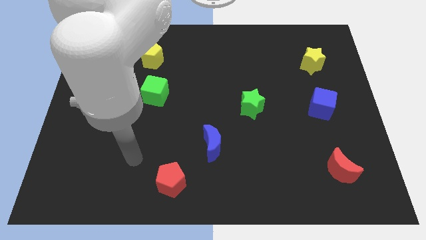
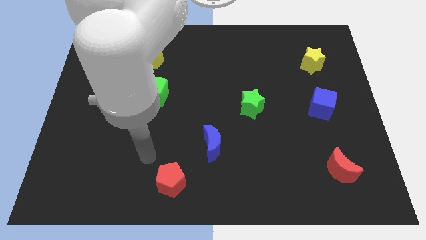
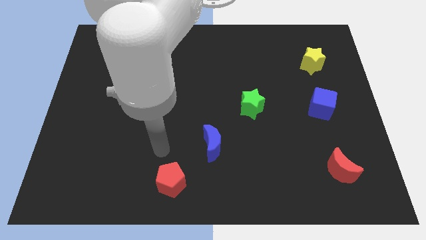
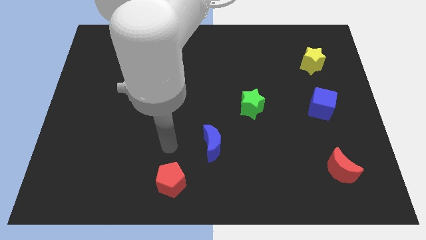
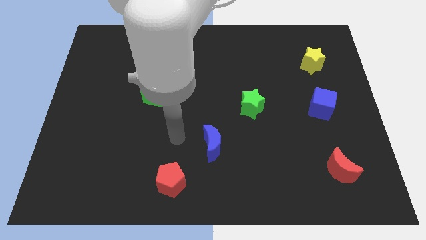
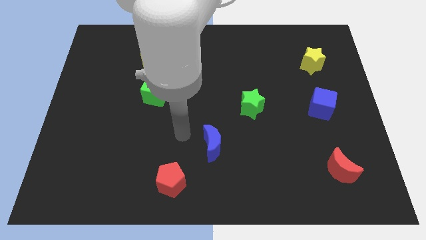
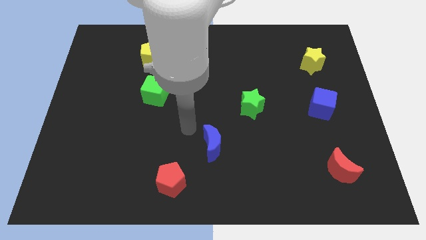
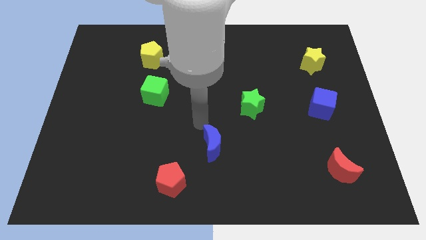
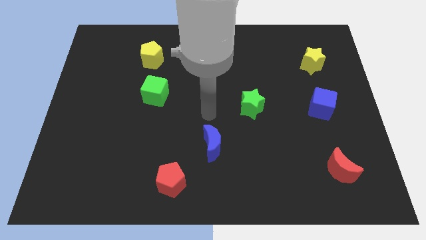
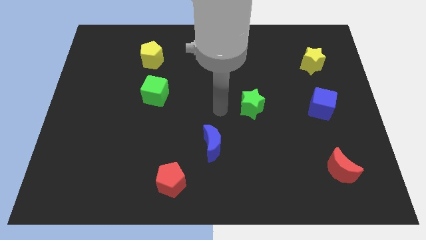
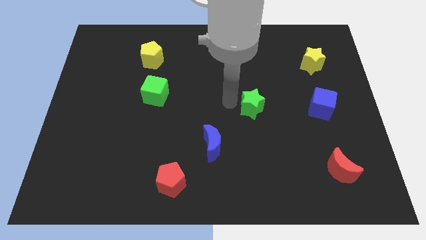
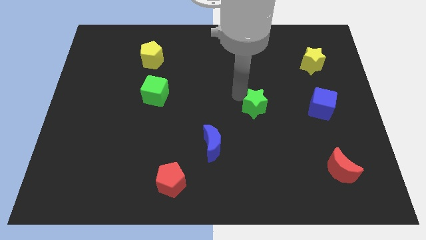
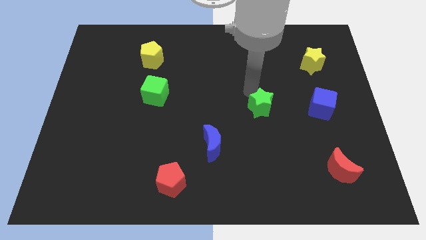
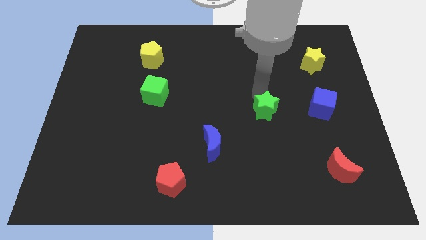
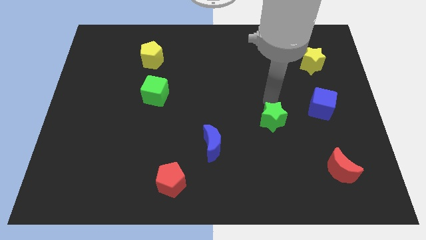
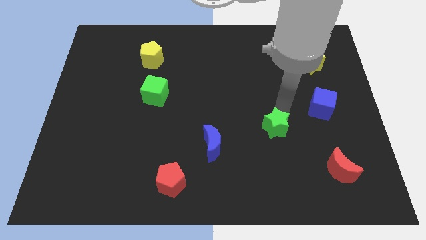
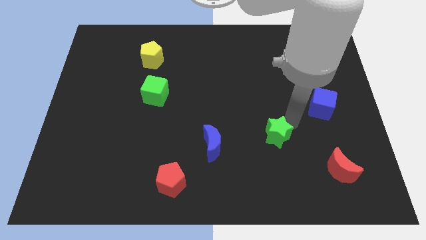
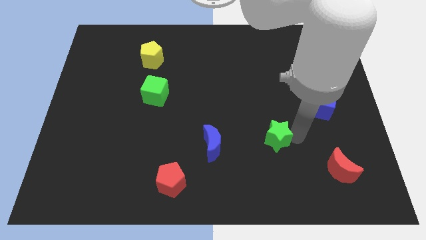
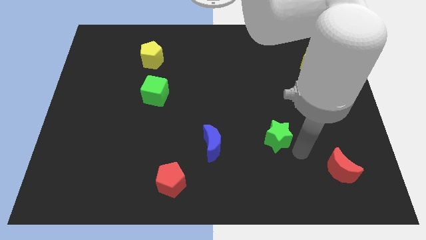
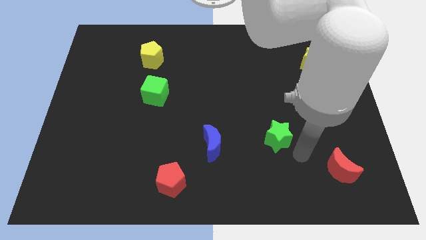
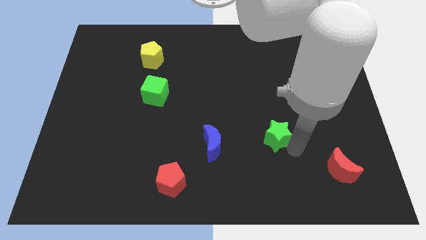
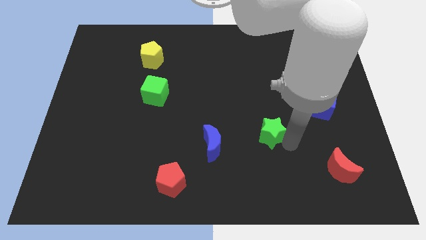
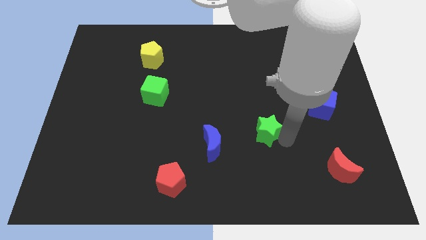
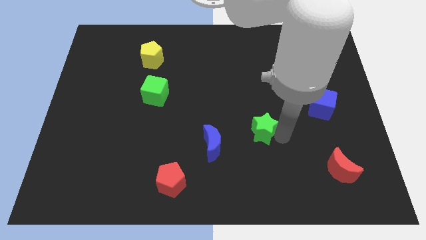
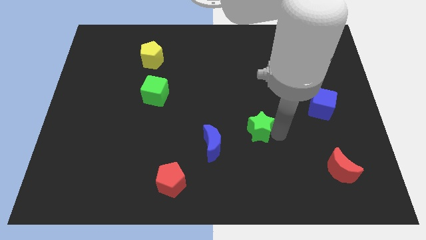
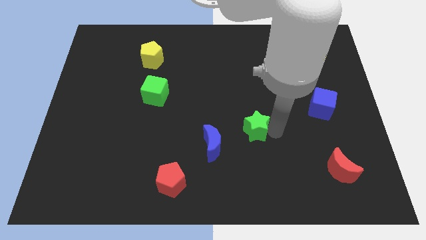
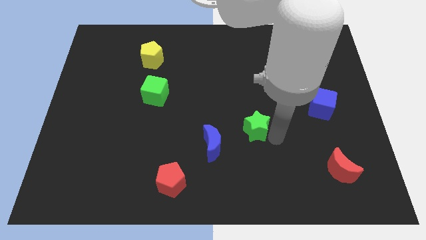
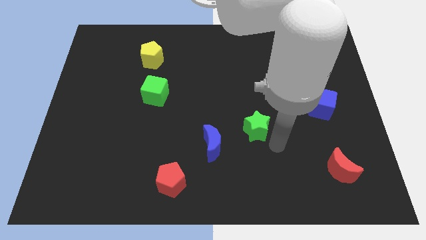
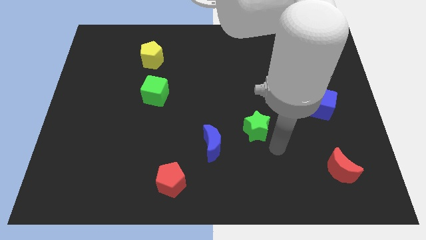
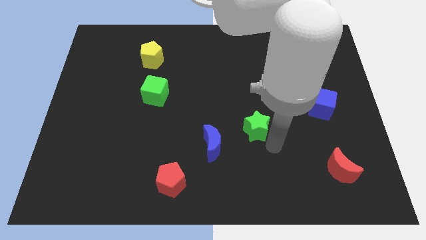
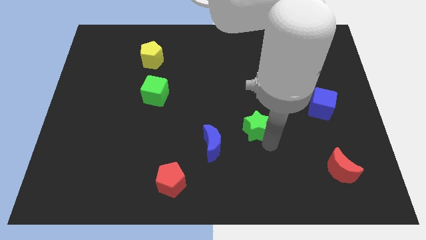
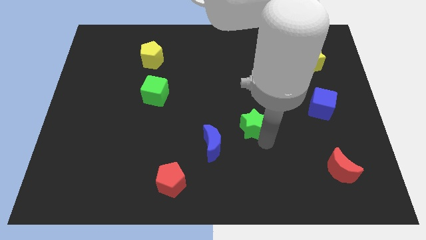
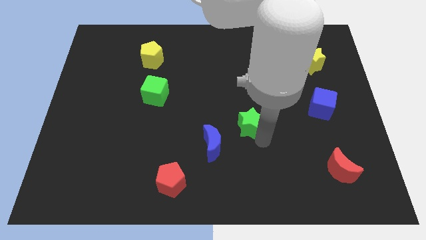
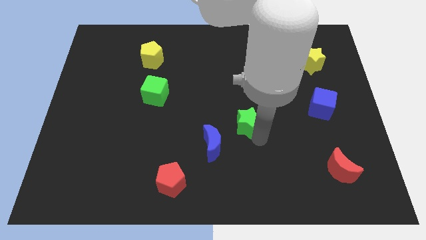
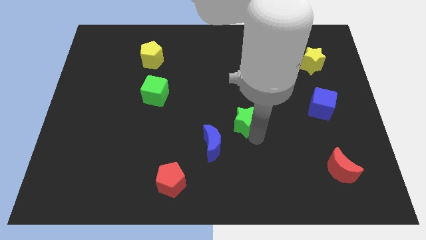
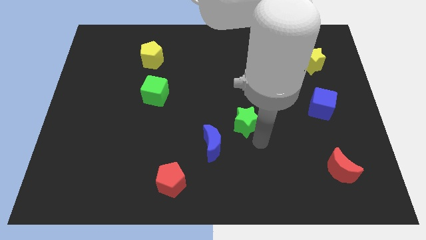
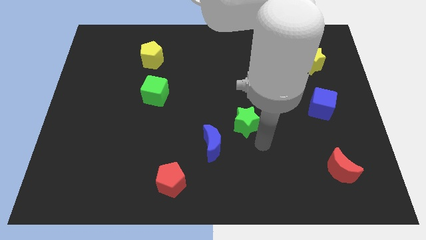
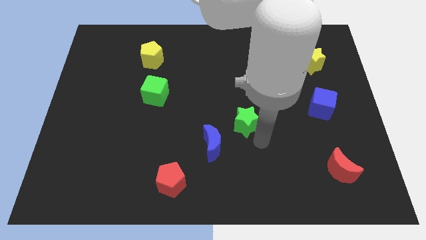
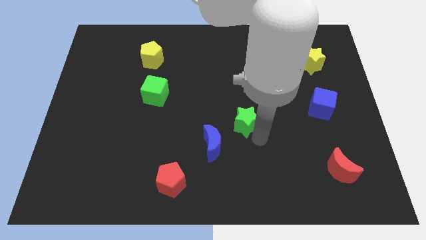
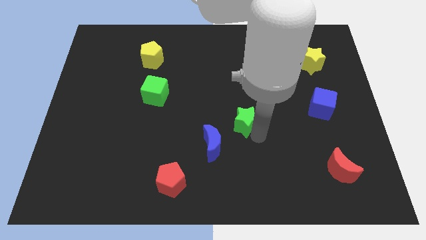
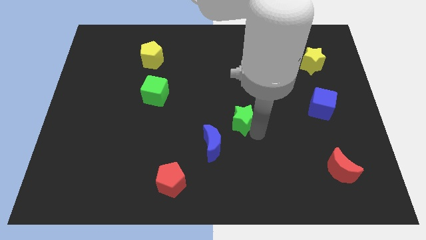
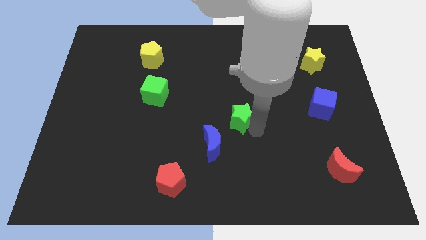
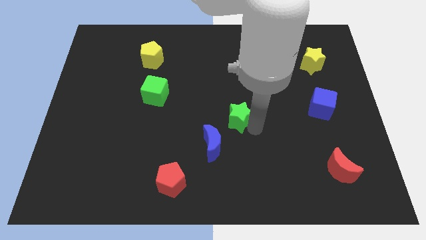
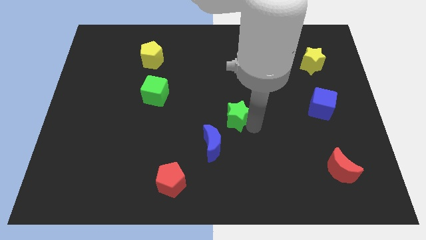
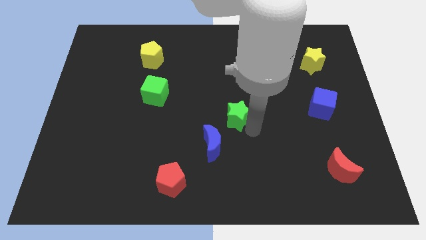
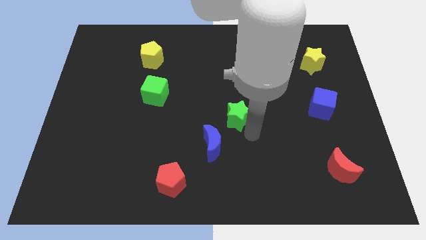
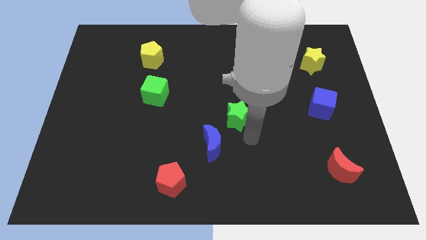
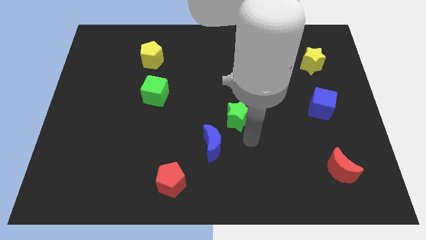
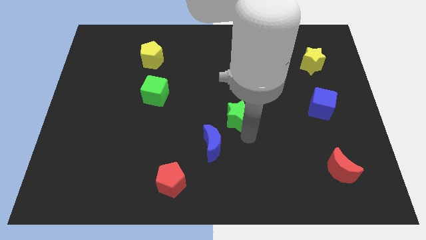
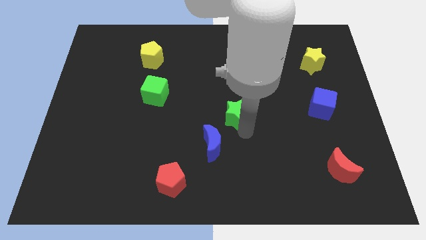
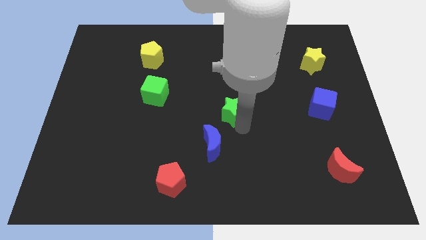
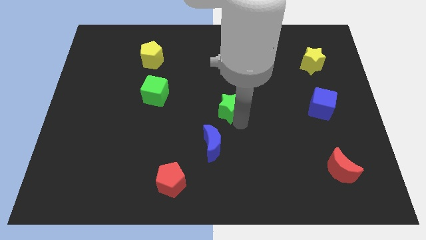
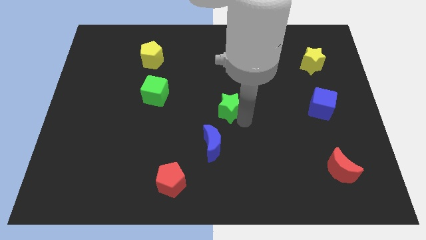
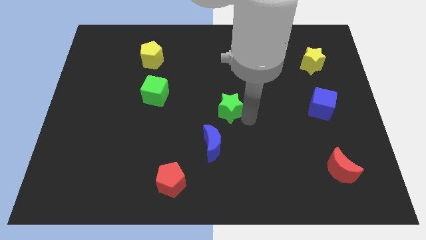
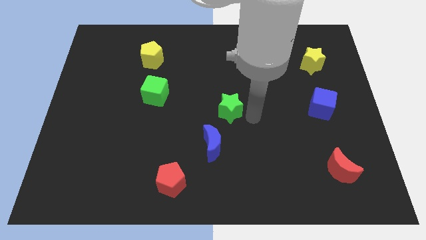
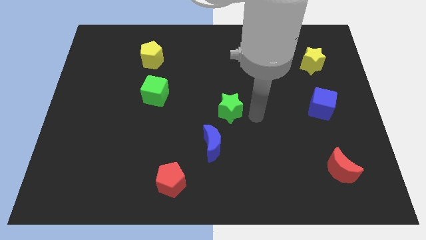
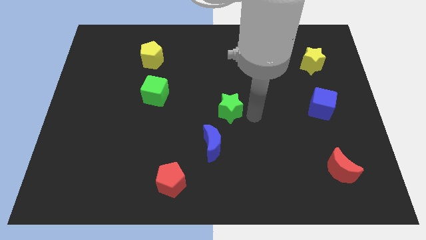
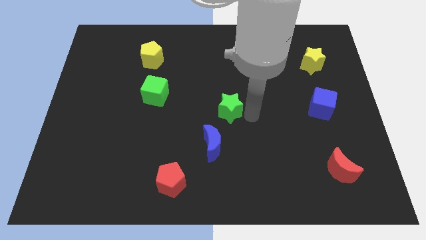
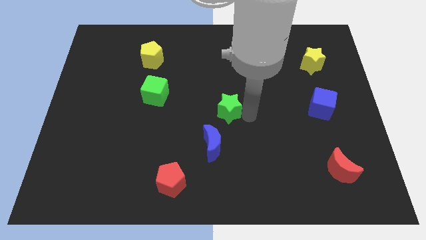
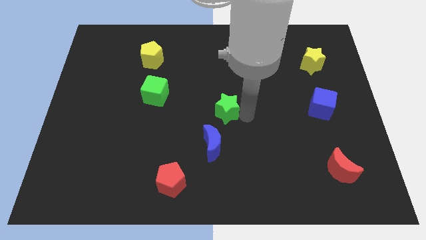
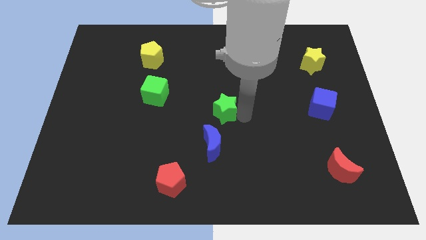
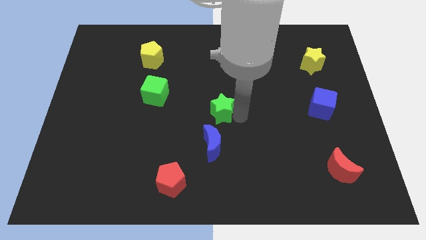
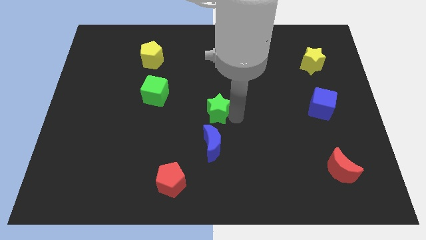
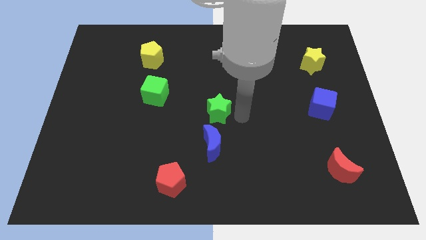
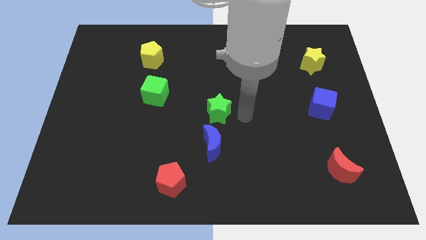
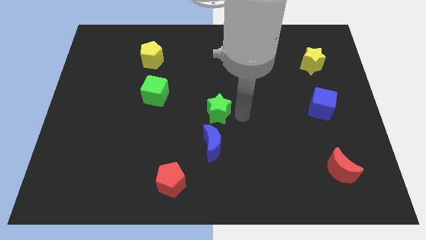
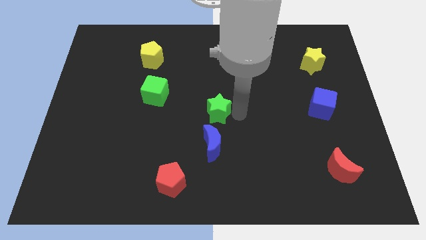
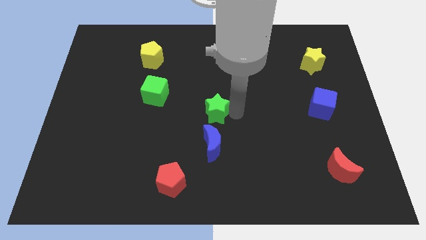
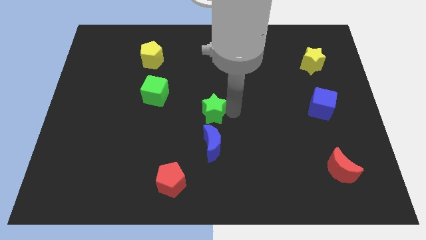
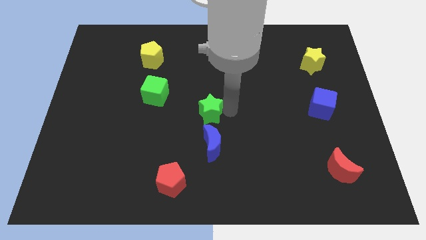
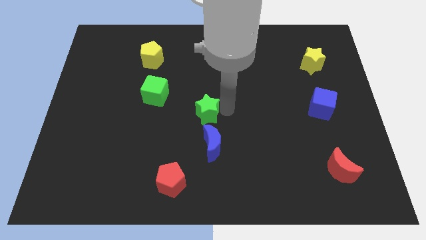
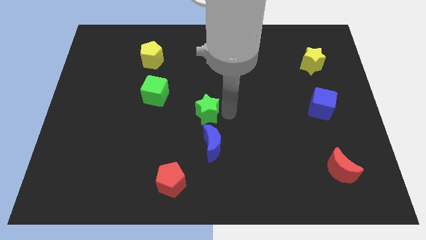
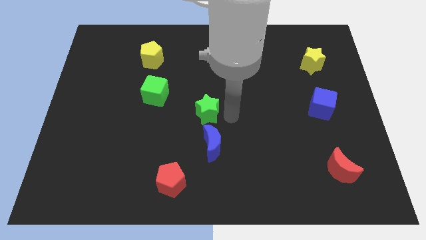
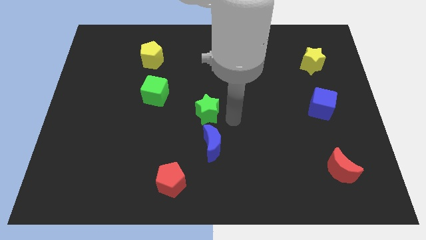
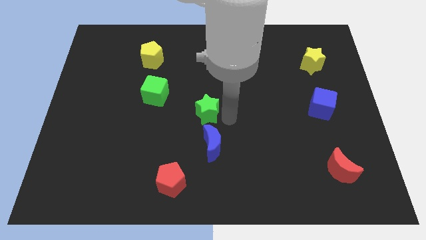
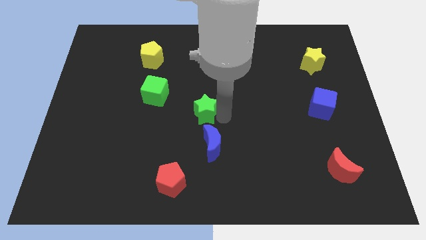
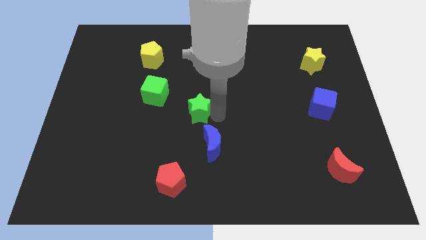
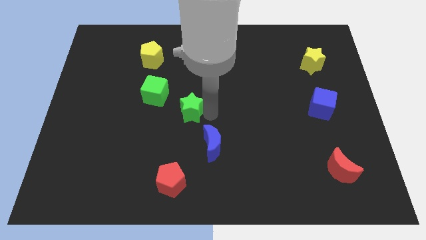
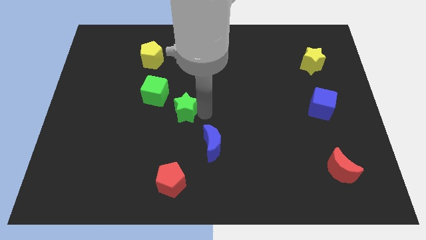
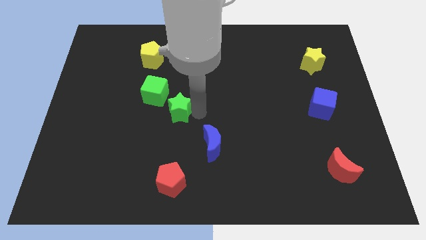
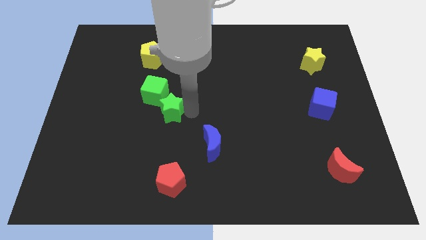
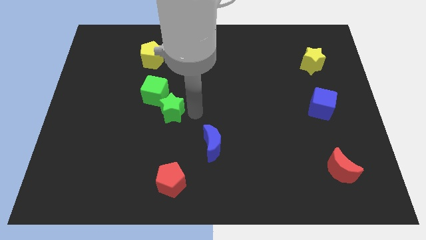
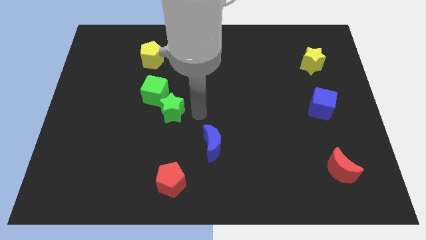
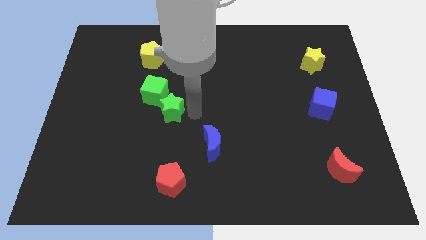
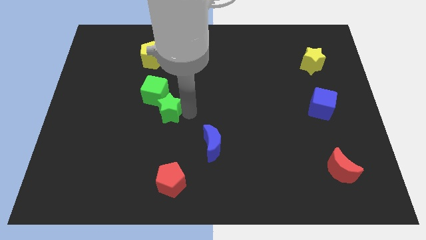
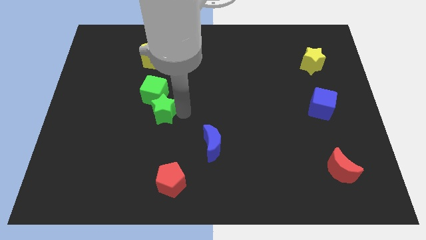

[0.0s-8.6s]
slide the green star to the left
